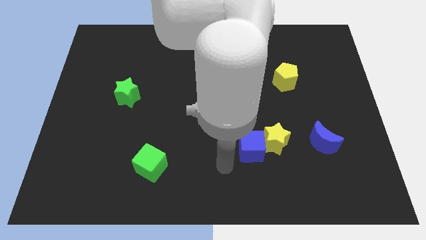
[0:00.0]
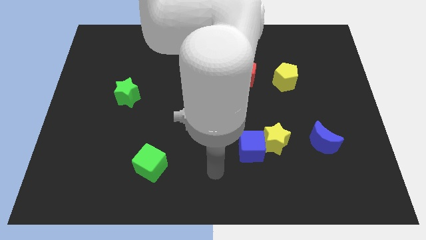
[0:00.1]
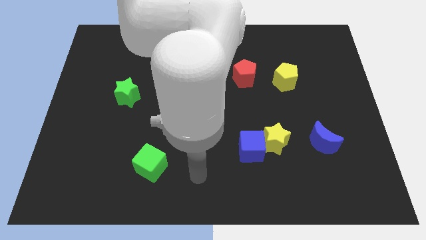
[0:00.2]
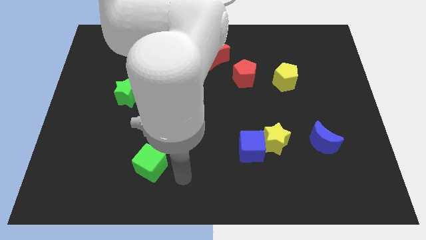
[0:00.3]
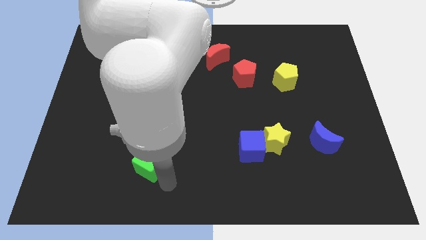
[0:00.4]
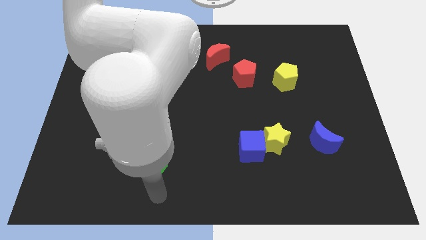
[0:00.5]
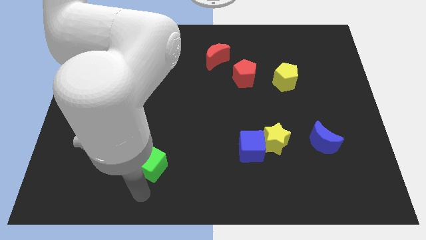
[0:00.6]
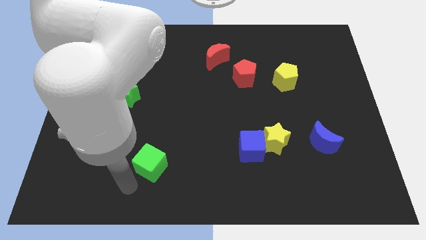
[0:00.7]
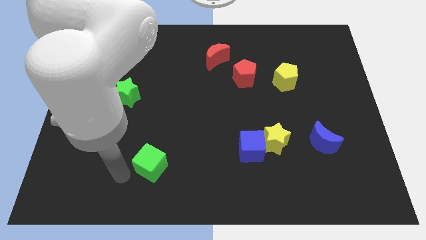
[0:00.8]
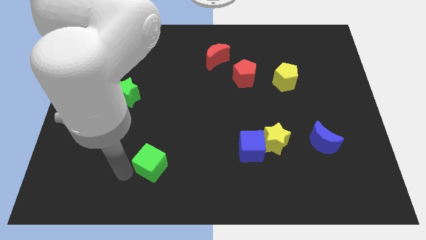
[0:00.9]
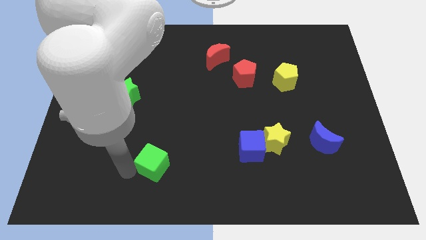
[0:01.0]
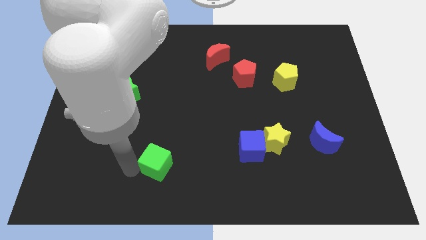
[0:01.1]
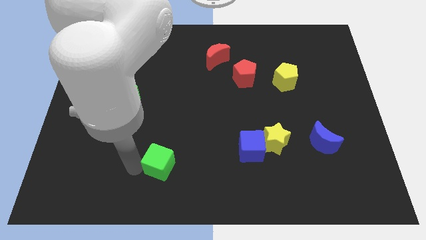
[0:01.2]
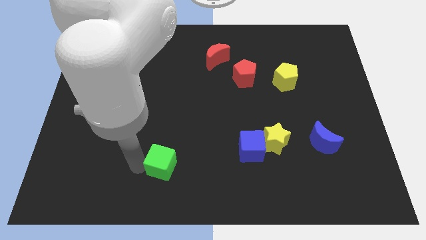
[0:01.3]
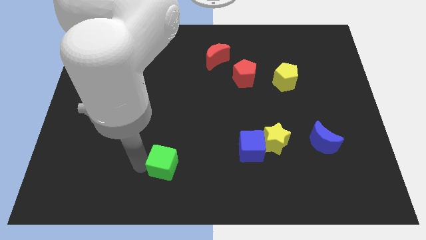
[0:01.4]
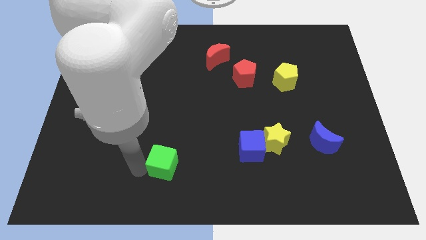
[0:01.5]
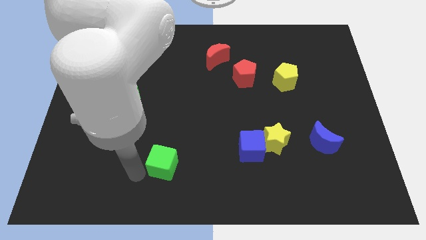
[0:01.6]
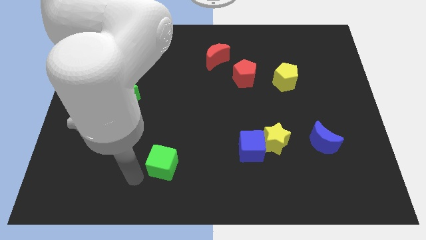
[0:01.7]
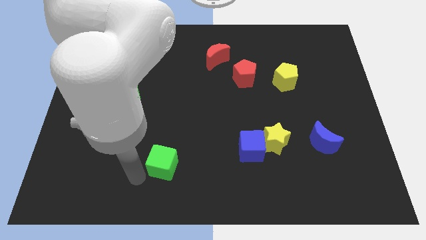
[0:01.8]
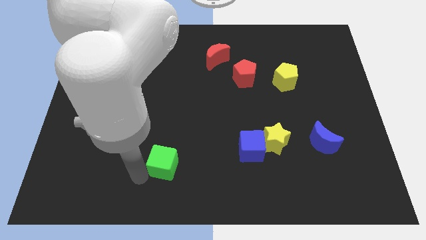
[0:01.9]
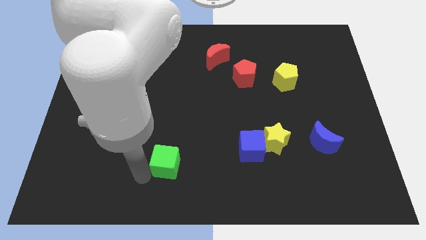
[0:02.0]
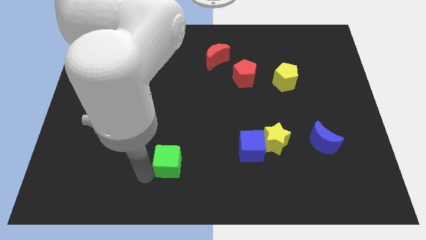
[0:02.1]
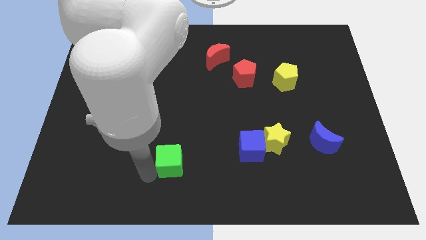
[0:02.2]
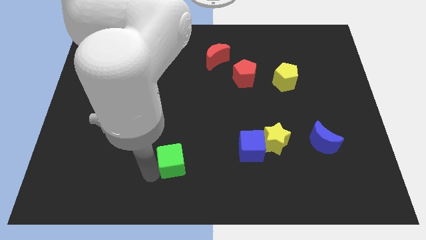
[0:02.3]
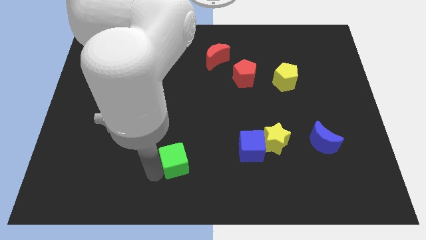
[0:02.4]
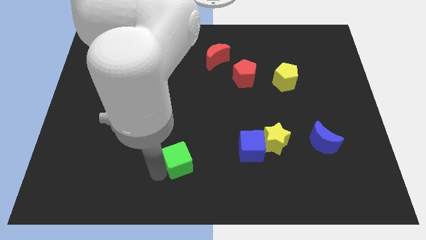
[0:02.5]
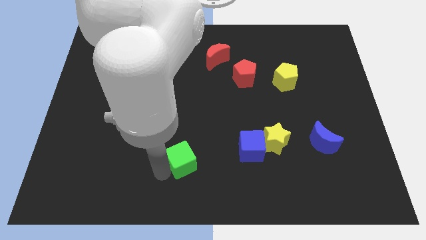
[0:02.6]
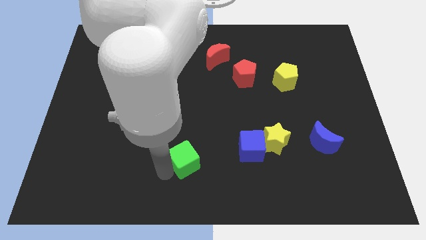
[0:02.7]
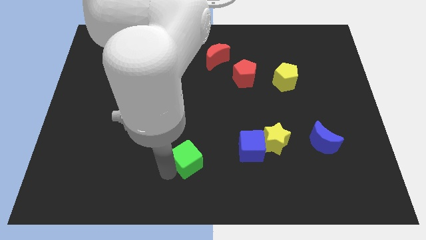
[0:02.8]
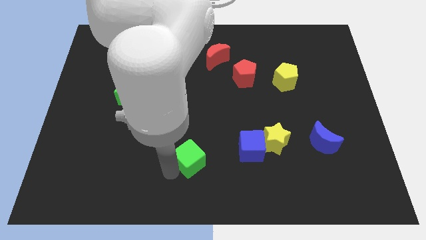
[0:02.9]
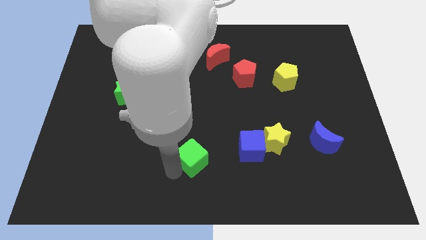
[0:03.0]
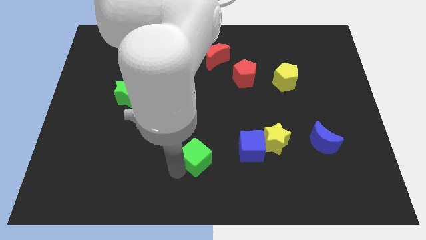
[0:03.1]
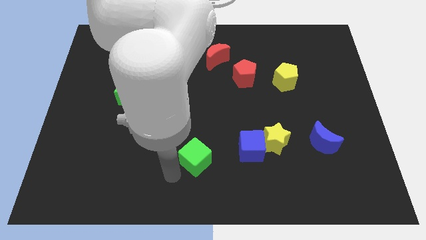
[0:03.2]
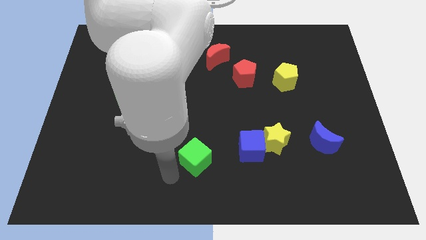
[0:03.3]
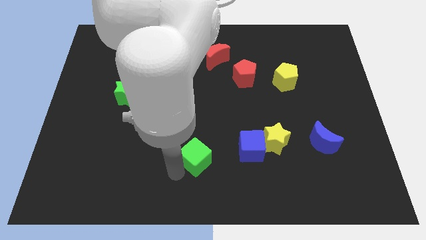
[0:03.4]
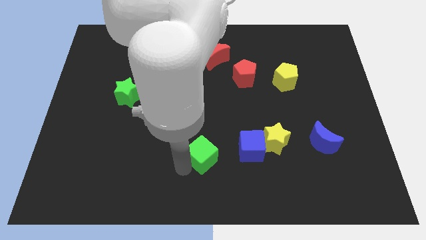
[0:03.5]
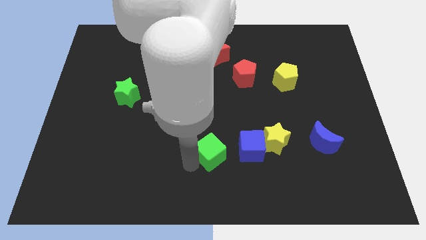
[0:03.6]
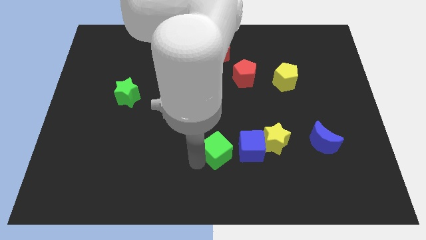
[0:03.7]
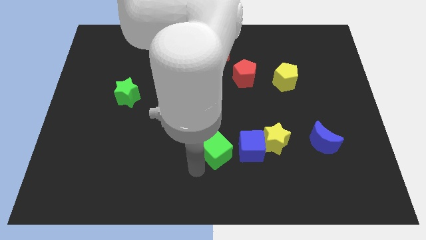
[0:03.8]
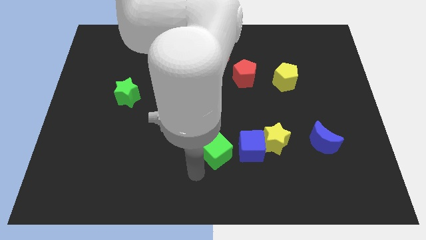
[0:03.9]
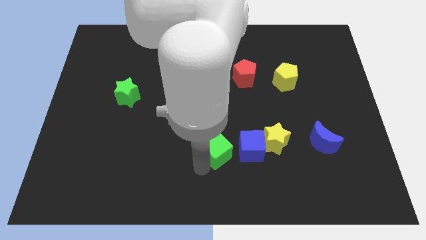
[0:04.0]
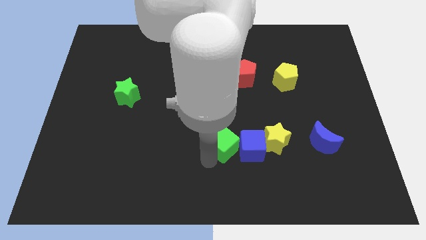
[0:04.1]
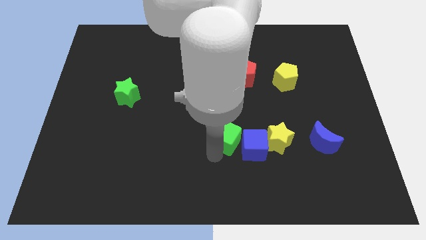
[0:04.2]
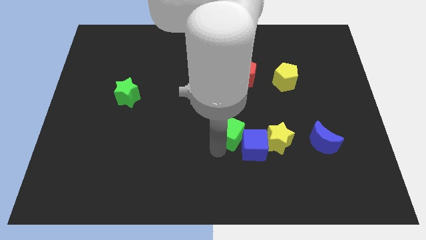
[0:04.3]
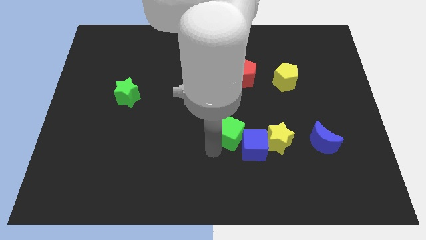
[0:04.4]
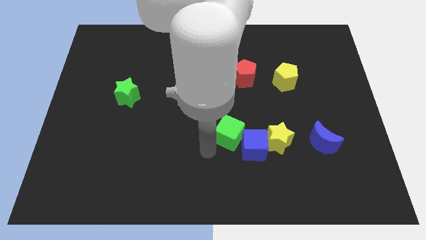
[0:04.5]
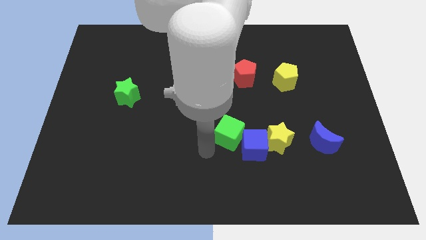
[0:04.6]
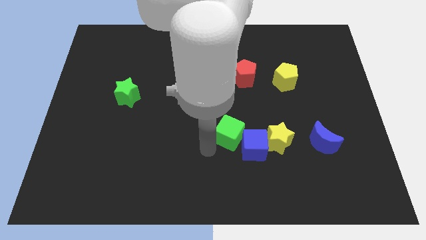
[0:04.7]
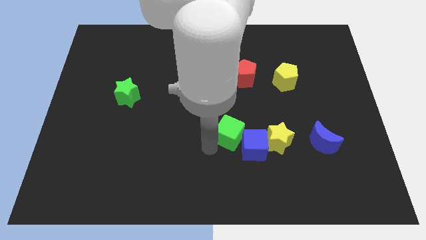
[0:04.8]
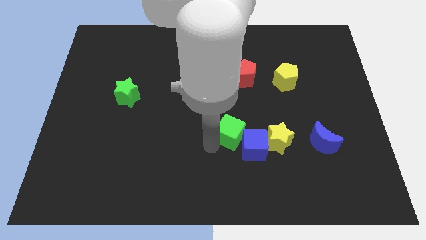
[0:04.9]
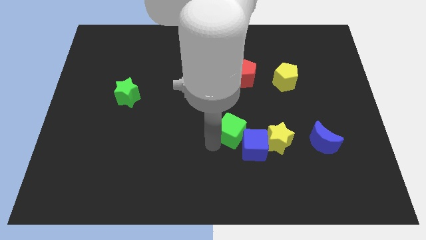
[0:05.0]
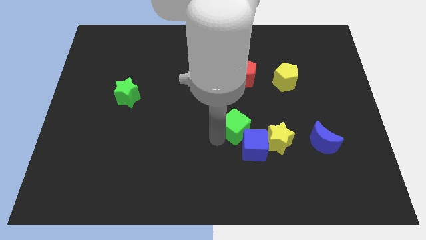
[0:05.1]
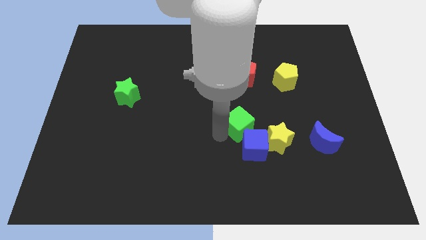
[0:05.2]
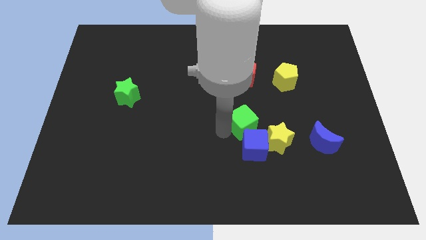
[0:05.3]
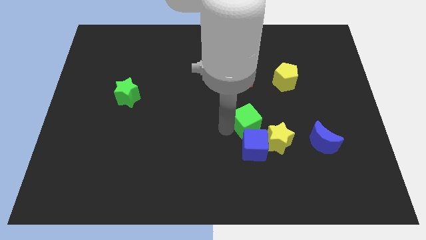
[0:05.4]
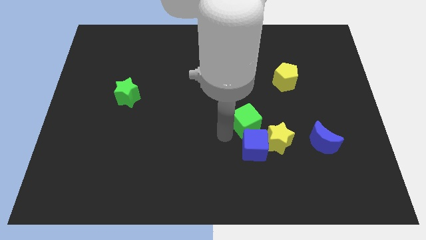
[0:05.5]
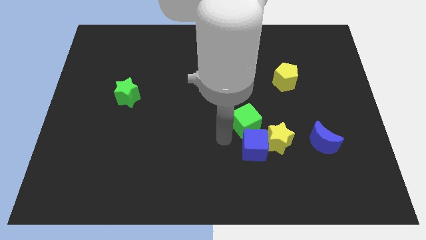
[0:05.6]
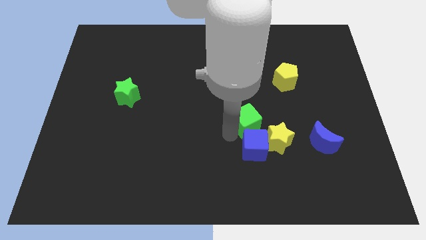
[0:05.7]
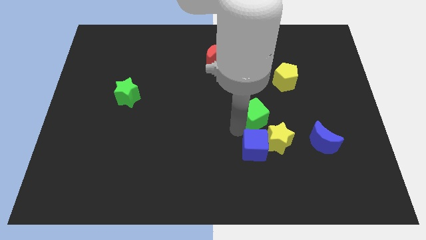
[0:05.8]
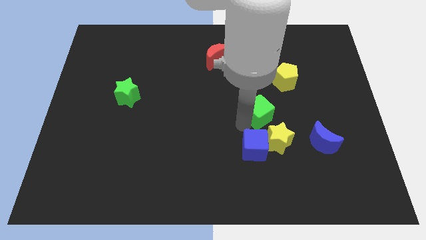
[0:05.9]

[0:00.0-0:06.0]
push the green cube to the top of the yellow star

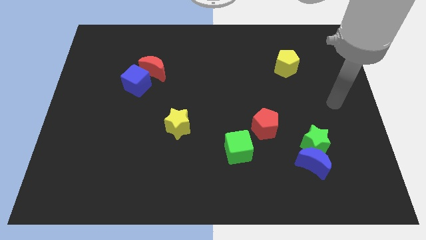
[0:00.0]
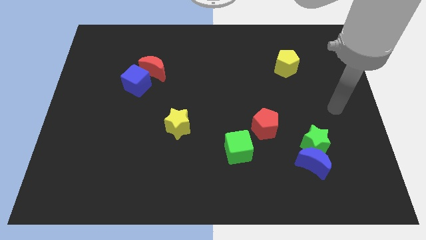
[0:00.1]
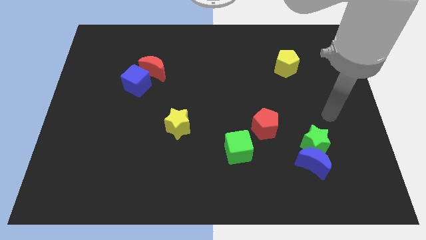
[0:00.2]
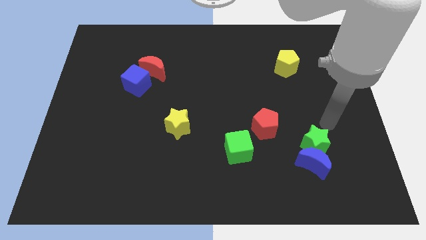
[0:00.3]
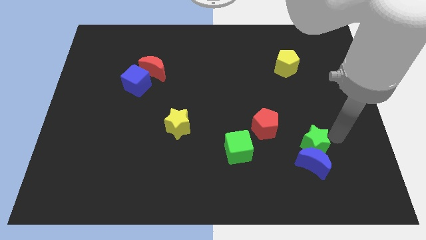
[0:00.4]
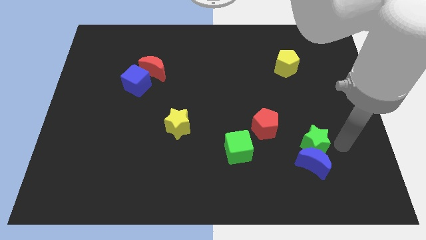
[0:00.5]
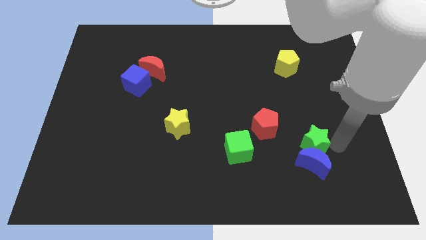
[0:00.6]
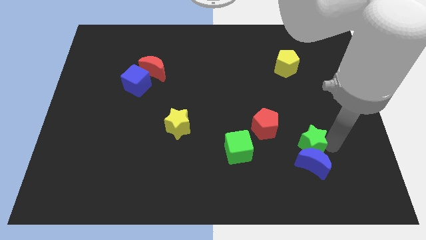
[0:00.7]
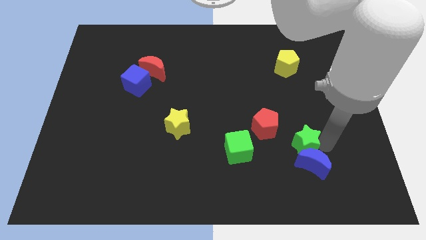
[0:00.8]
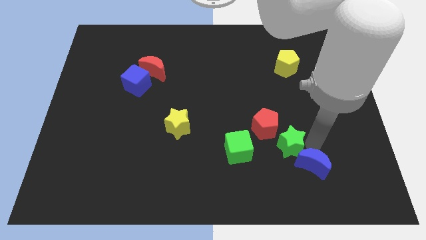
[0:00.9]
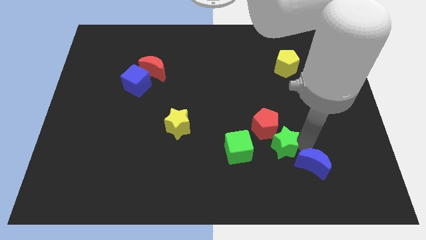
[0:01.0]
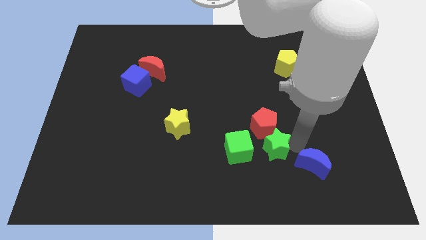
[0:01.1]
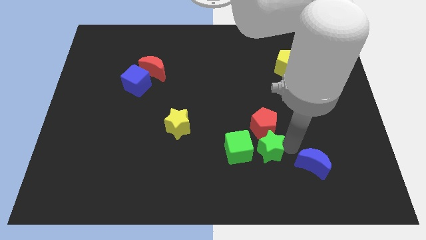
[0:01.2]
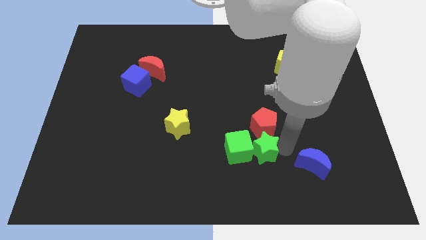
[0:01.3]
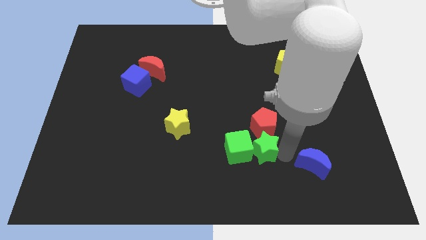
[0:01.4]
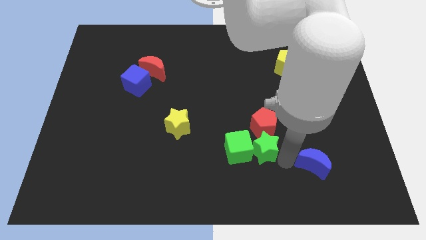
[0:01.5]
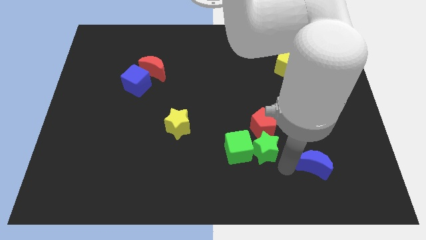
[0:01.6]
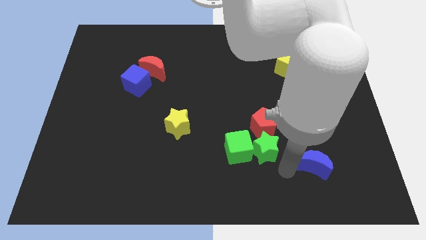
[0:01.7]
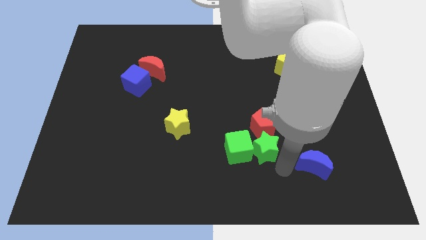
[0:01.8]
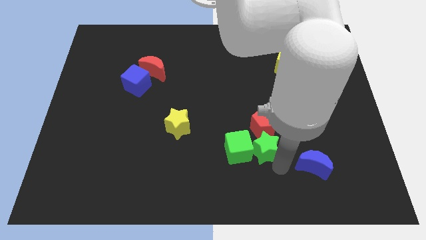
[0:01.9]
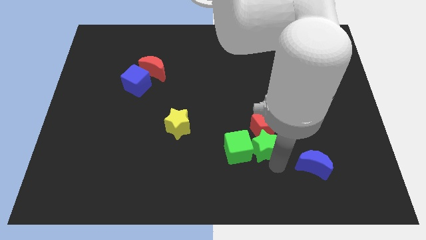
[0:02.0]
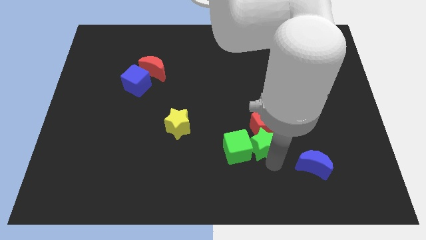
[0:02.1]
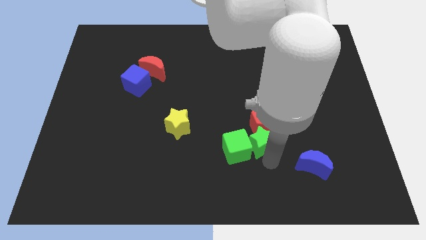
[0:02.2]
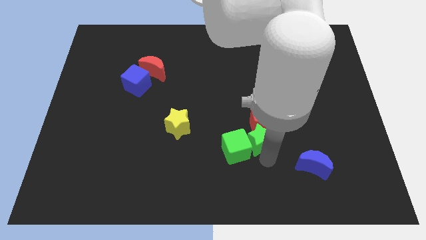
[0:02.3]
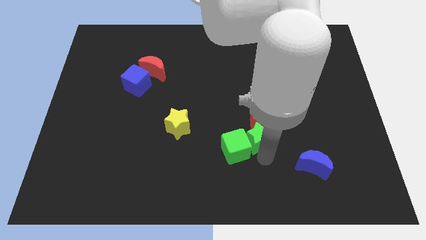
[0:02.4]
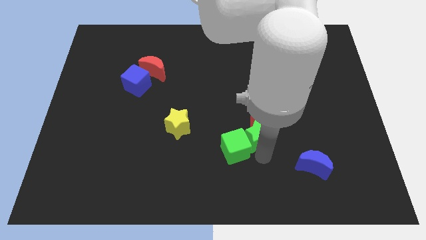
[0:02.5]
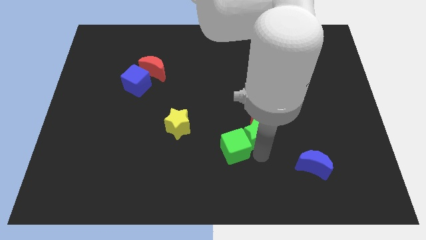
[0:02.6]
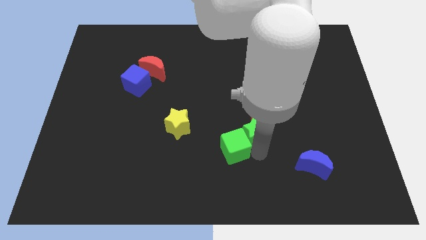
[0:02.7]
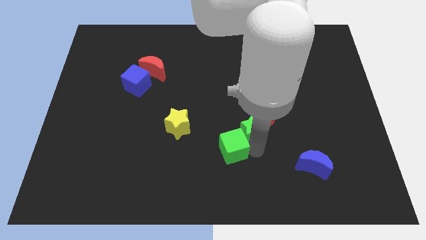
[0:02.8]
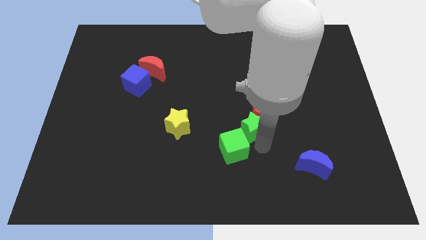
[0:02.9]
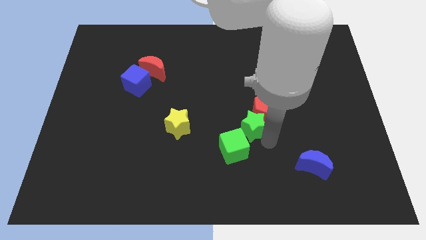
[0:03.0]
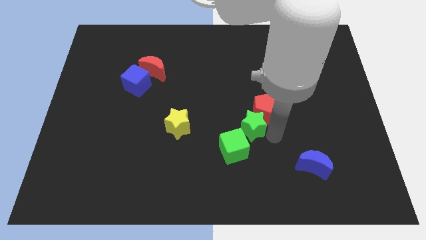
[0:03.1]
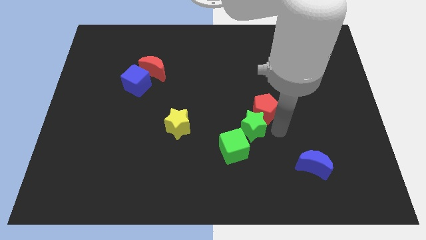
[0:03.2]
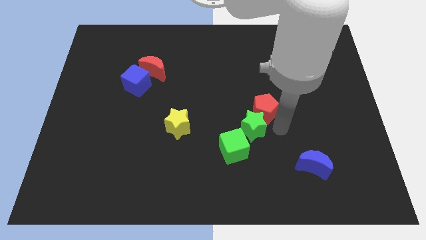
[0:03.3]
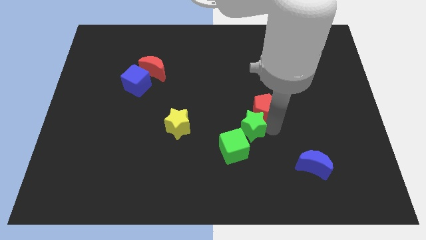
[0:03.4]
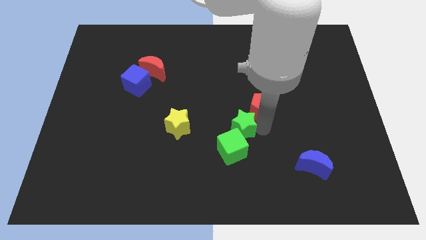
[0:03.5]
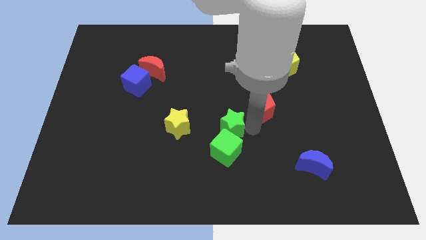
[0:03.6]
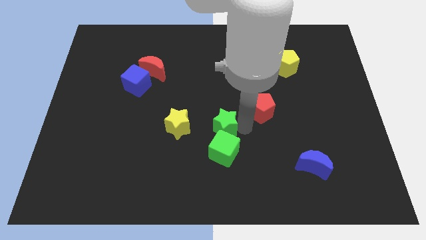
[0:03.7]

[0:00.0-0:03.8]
push the green star to the top left side of the green cube
